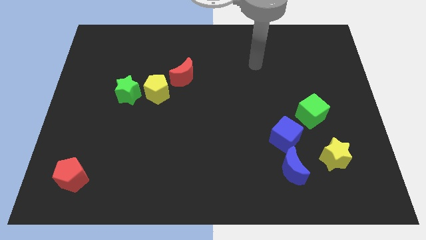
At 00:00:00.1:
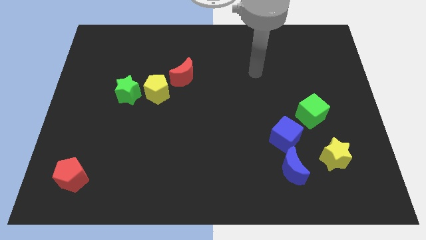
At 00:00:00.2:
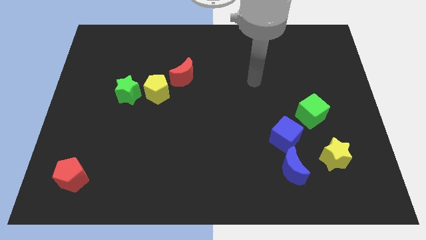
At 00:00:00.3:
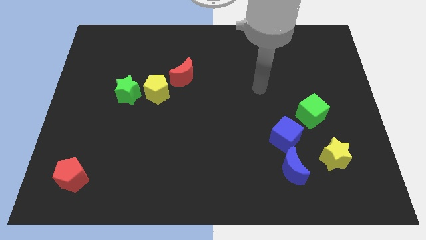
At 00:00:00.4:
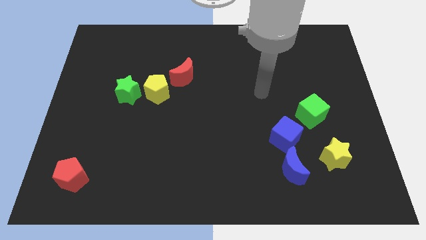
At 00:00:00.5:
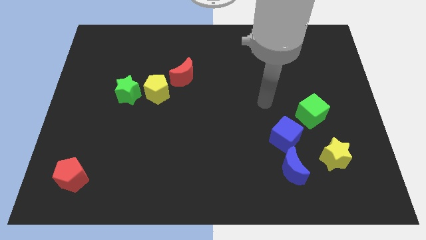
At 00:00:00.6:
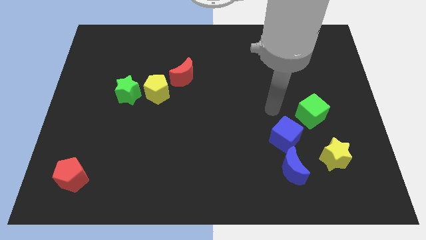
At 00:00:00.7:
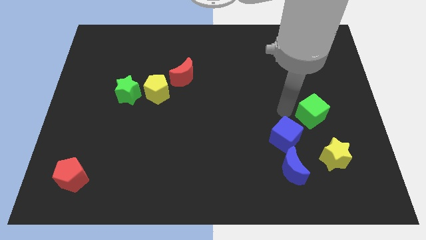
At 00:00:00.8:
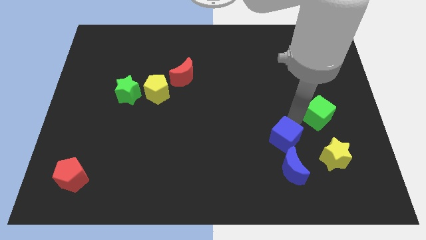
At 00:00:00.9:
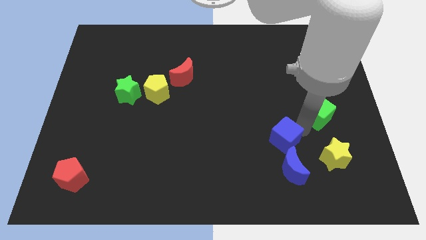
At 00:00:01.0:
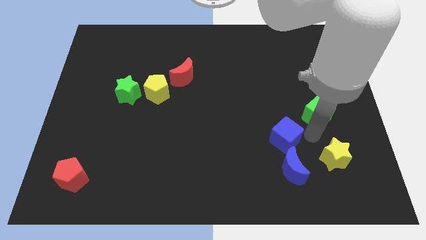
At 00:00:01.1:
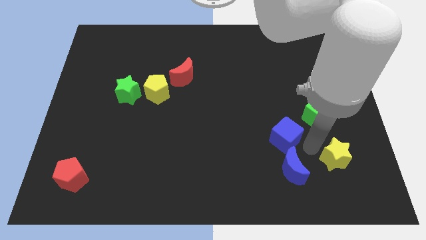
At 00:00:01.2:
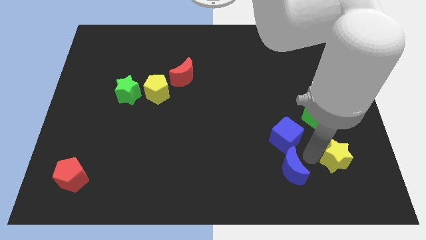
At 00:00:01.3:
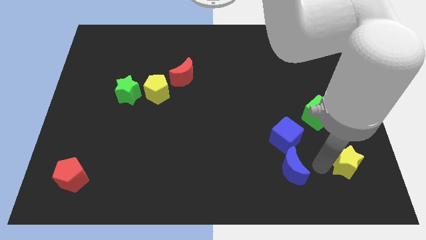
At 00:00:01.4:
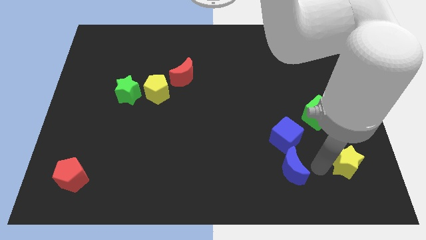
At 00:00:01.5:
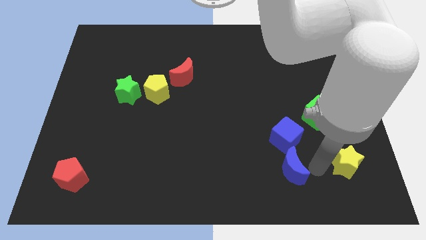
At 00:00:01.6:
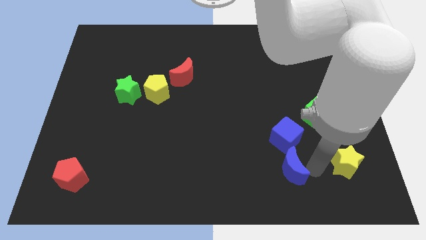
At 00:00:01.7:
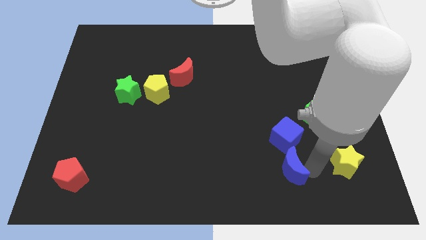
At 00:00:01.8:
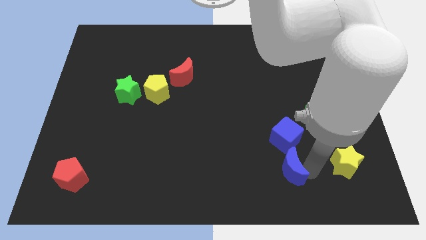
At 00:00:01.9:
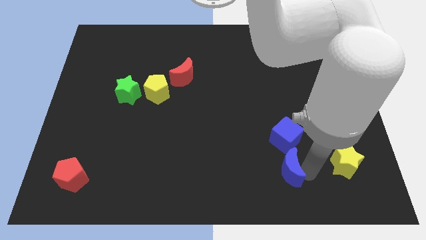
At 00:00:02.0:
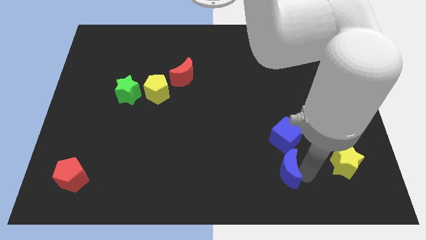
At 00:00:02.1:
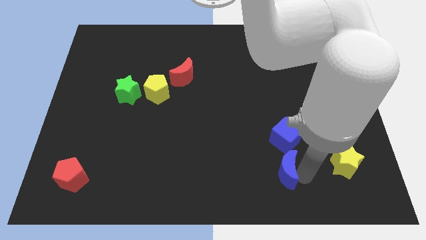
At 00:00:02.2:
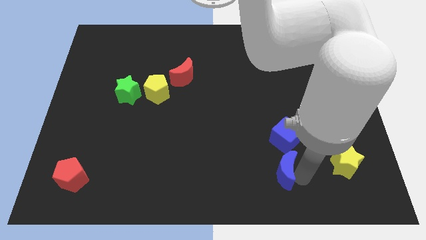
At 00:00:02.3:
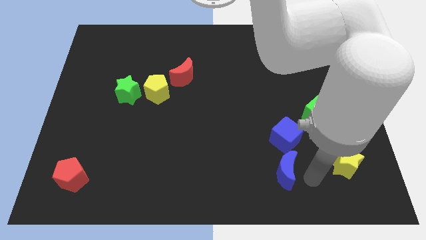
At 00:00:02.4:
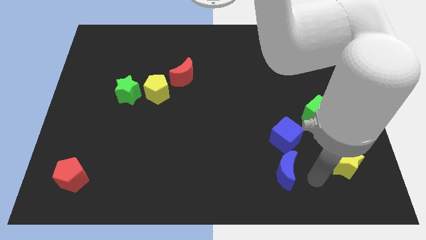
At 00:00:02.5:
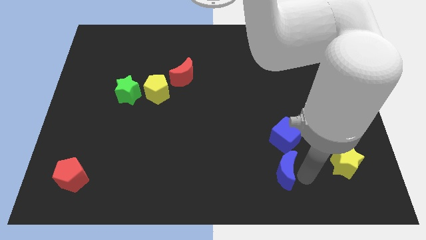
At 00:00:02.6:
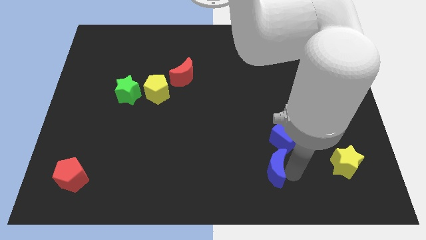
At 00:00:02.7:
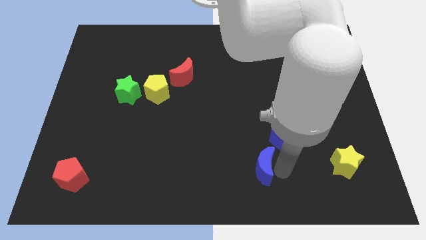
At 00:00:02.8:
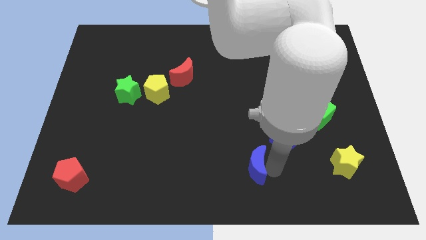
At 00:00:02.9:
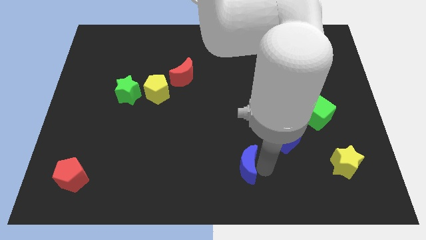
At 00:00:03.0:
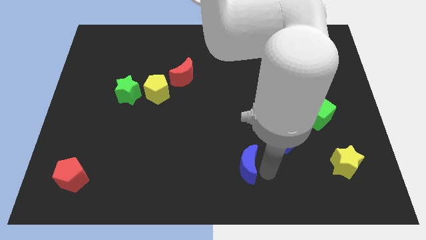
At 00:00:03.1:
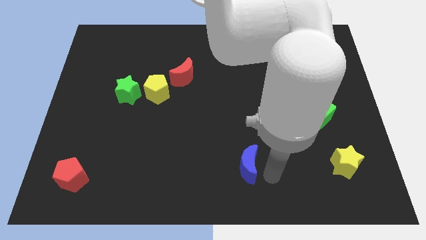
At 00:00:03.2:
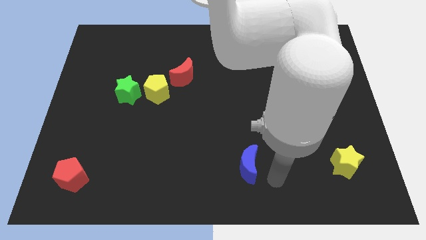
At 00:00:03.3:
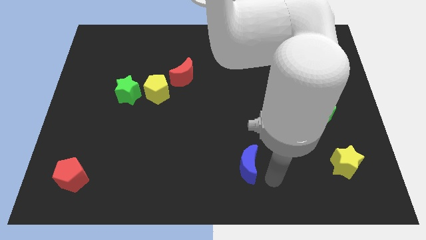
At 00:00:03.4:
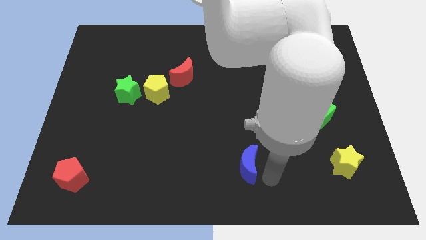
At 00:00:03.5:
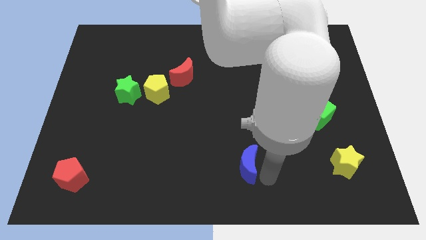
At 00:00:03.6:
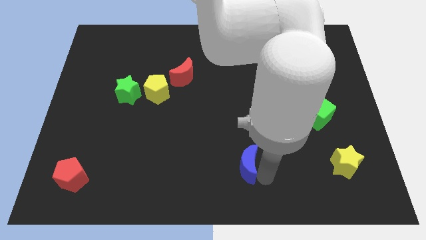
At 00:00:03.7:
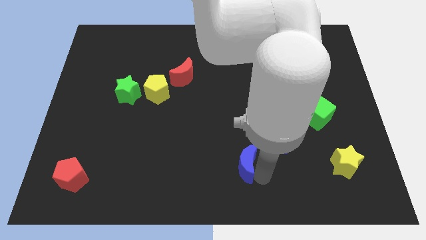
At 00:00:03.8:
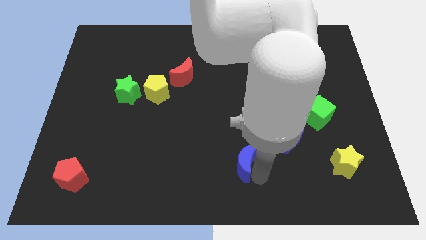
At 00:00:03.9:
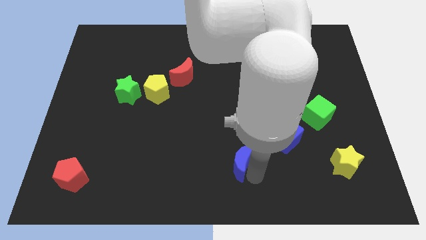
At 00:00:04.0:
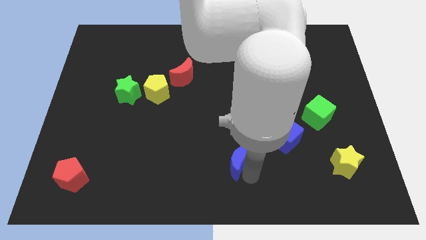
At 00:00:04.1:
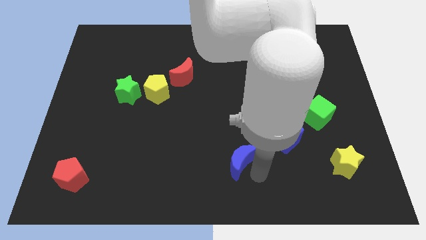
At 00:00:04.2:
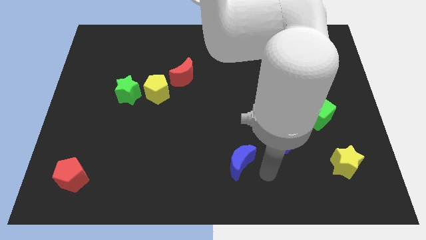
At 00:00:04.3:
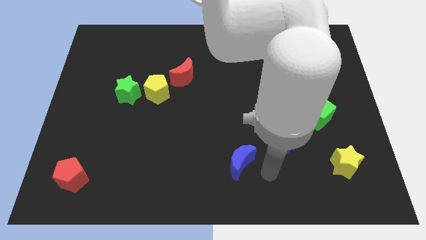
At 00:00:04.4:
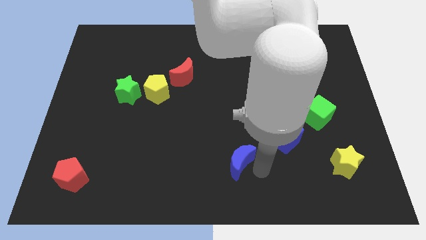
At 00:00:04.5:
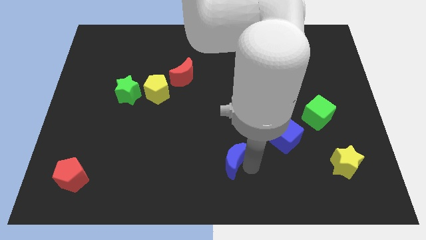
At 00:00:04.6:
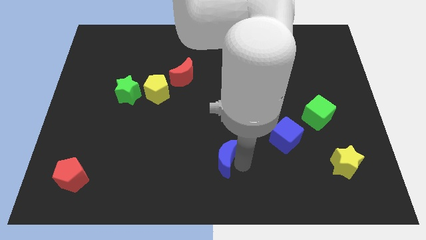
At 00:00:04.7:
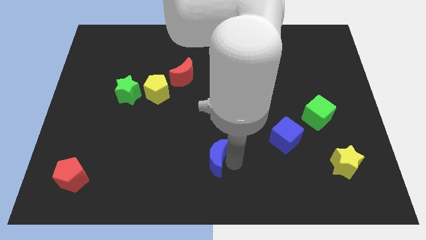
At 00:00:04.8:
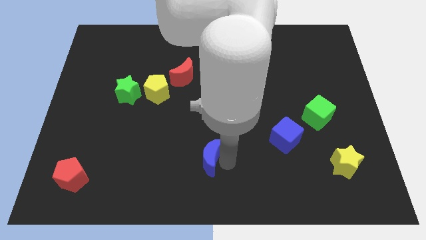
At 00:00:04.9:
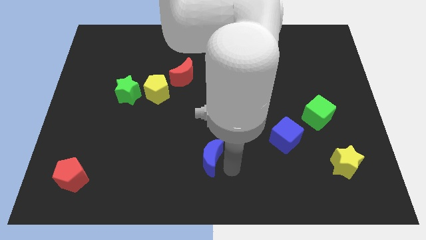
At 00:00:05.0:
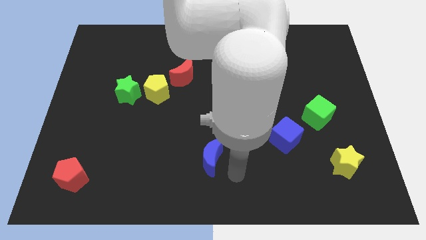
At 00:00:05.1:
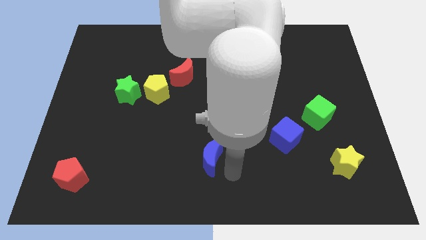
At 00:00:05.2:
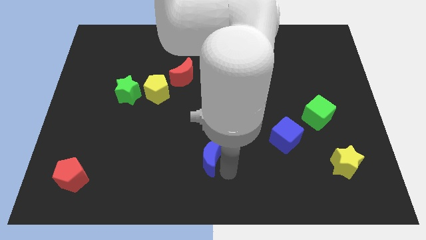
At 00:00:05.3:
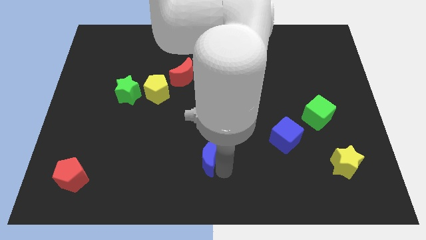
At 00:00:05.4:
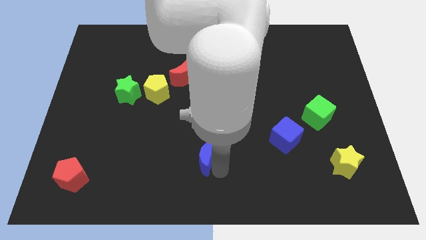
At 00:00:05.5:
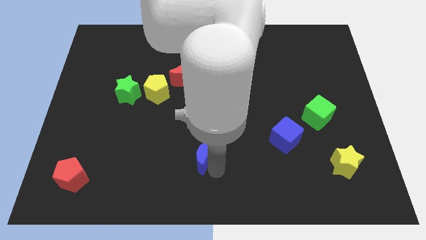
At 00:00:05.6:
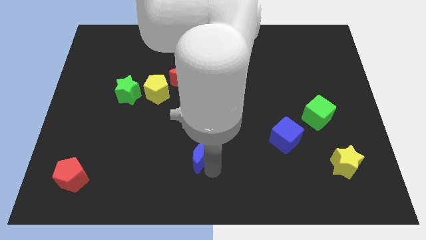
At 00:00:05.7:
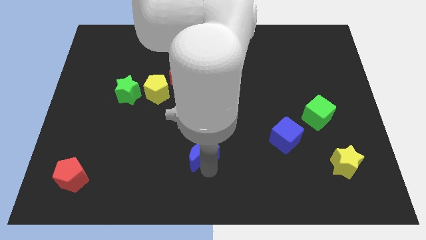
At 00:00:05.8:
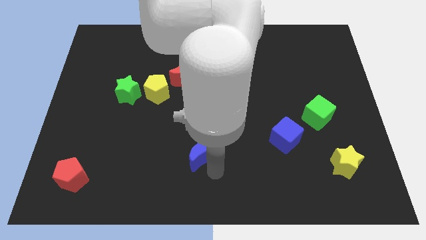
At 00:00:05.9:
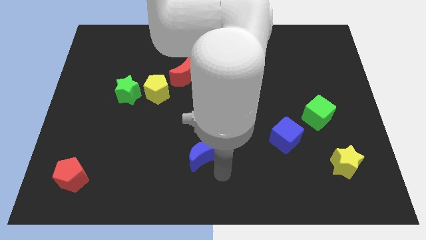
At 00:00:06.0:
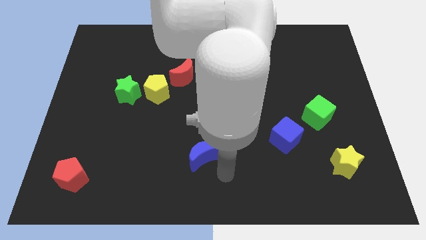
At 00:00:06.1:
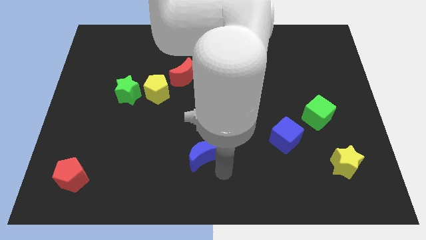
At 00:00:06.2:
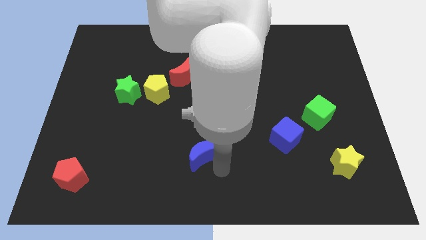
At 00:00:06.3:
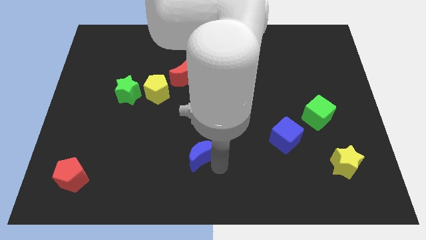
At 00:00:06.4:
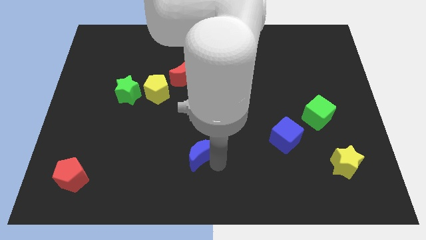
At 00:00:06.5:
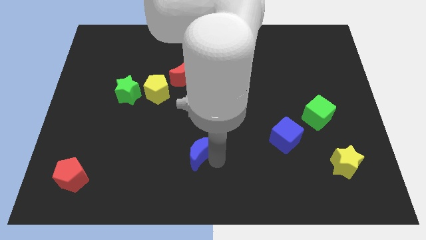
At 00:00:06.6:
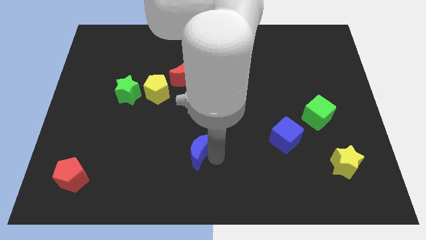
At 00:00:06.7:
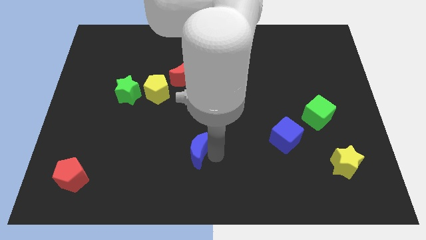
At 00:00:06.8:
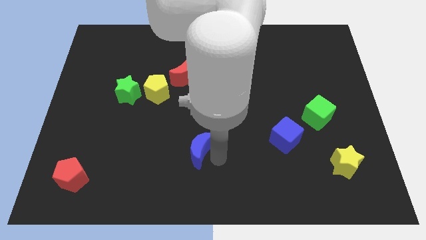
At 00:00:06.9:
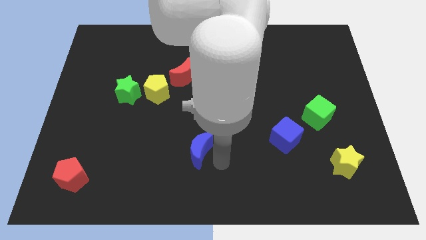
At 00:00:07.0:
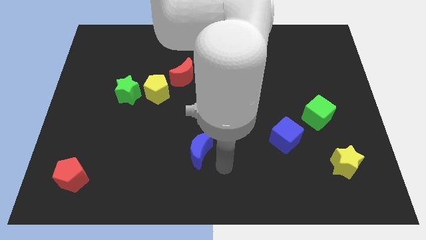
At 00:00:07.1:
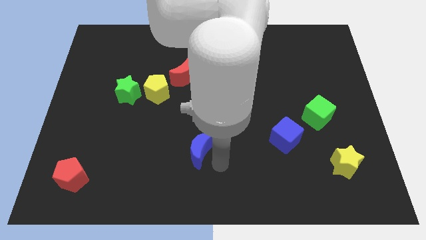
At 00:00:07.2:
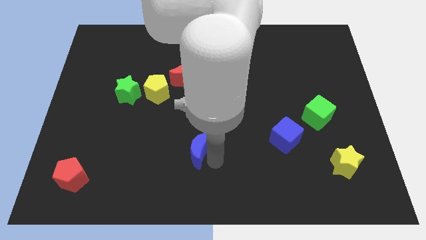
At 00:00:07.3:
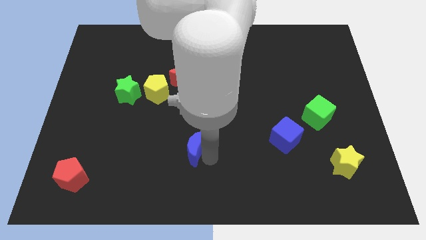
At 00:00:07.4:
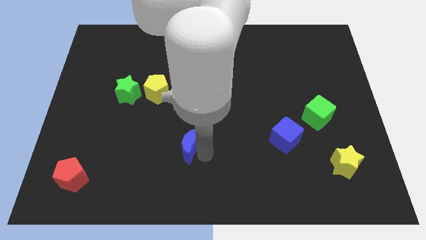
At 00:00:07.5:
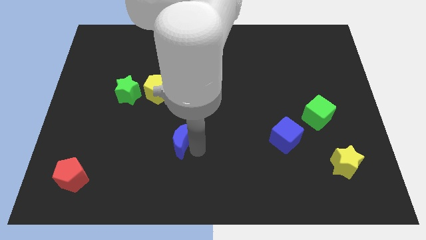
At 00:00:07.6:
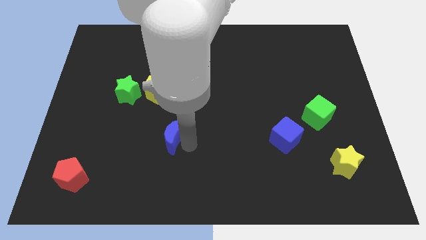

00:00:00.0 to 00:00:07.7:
push the blue moon to the bottom of the yellow pentagon
